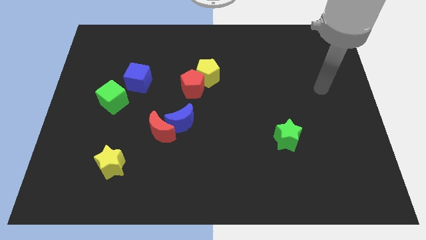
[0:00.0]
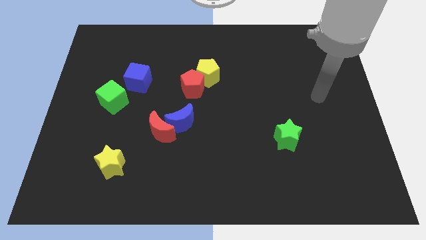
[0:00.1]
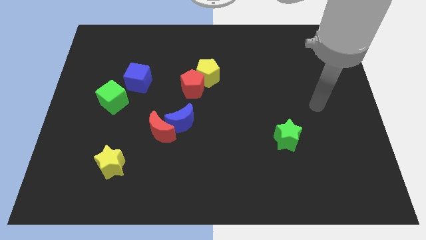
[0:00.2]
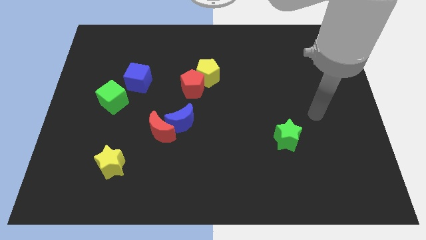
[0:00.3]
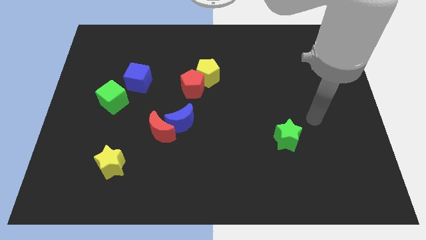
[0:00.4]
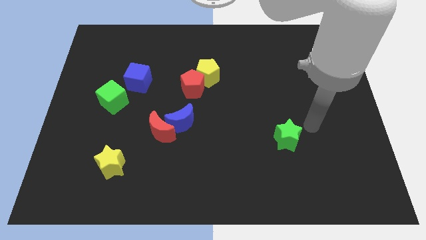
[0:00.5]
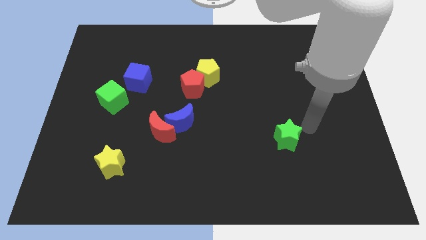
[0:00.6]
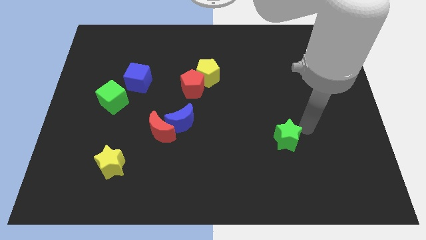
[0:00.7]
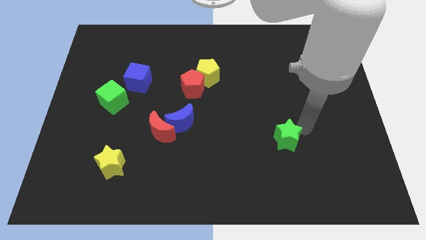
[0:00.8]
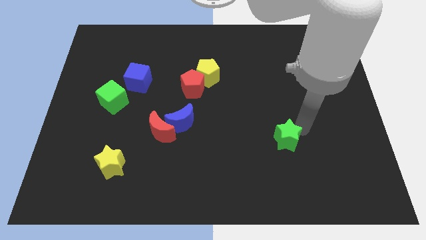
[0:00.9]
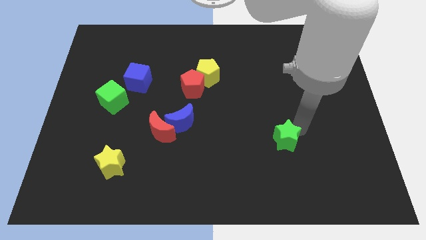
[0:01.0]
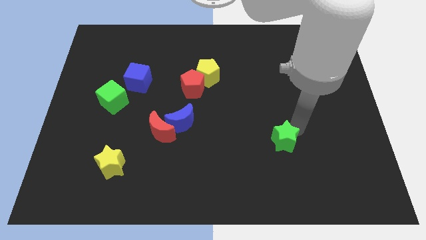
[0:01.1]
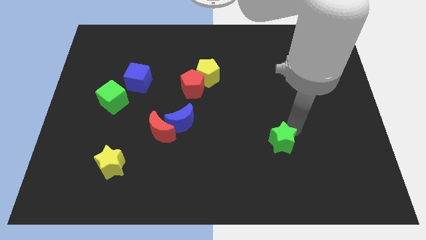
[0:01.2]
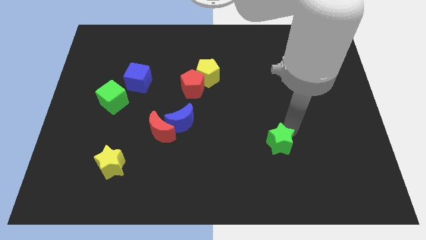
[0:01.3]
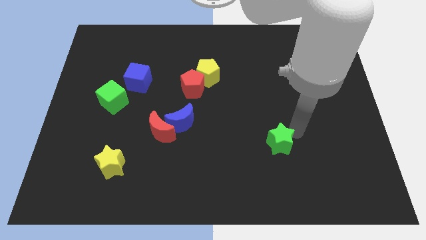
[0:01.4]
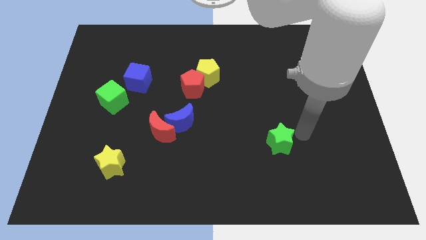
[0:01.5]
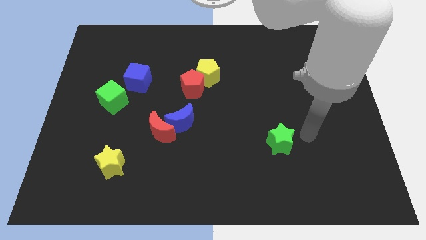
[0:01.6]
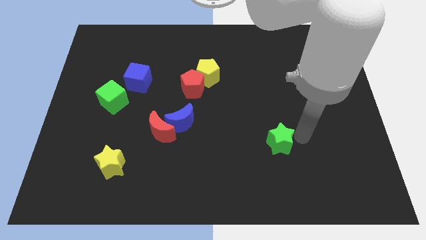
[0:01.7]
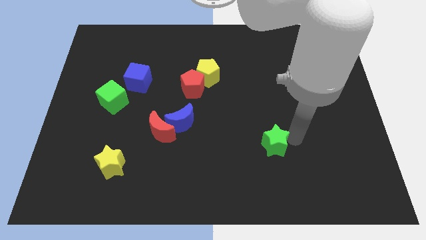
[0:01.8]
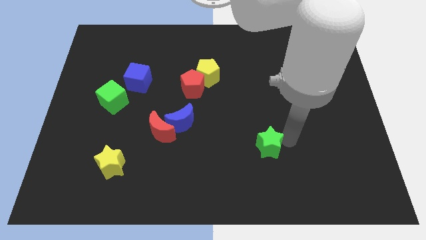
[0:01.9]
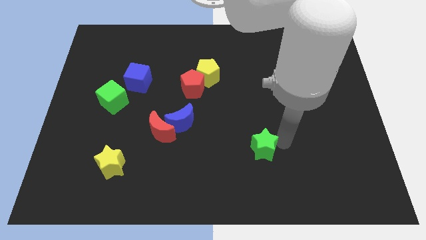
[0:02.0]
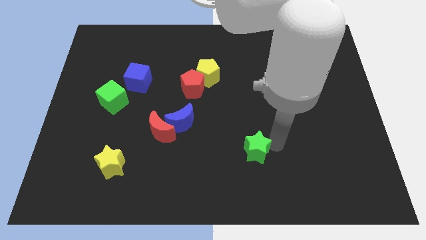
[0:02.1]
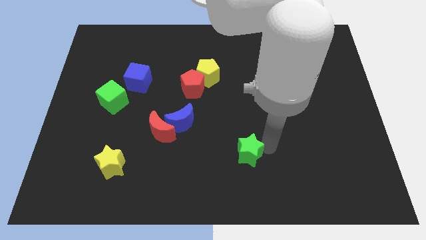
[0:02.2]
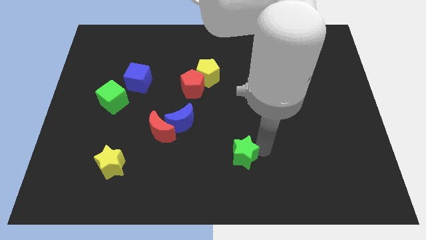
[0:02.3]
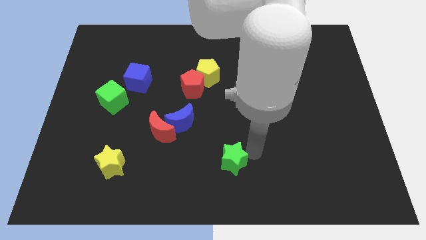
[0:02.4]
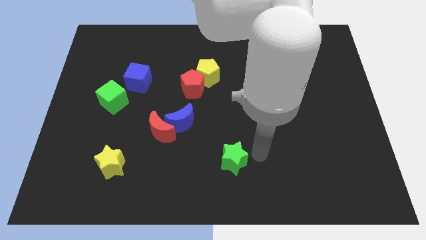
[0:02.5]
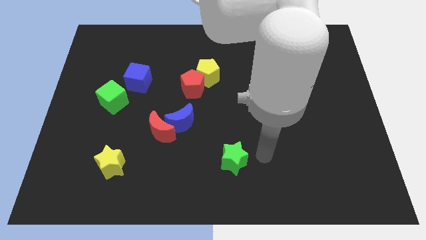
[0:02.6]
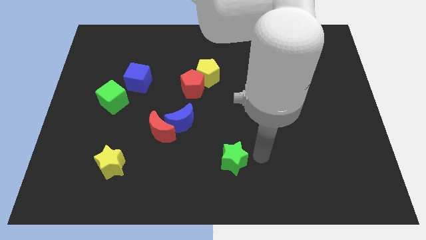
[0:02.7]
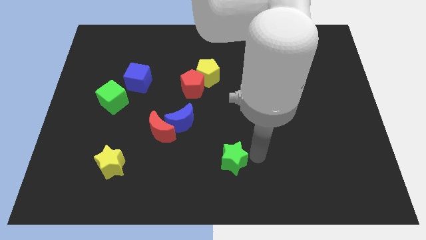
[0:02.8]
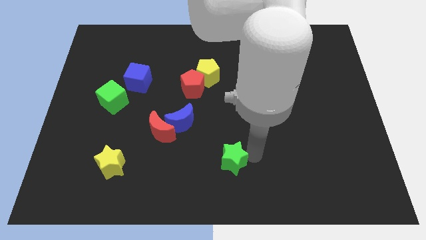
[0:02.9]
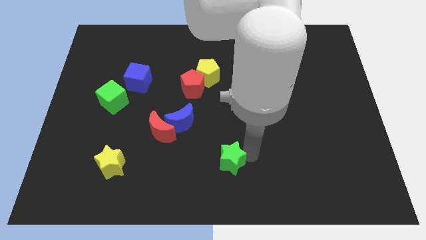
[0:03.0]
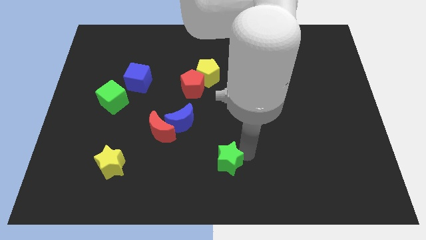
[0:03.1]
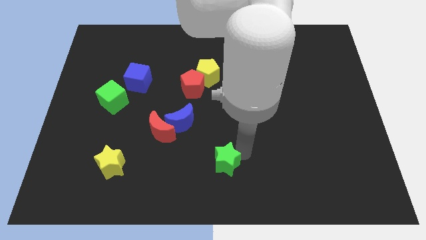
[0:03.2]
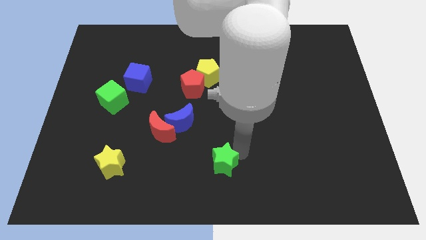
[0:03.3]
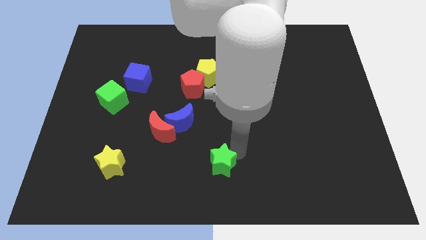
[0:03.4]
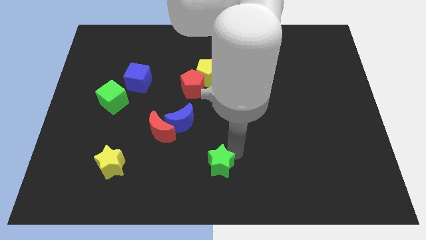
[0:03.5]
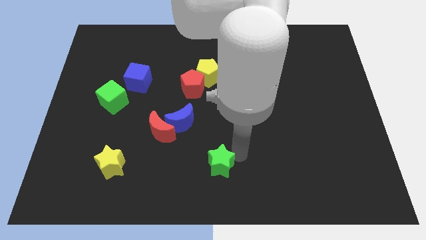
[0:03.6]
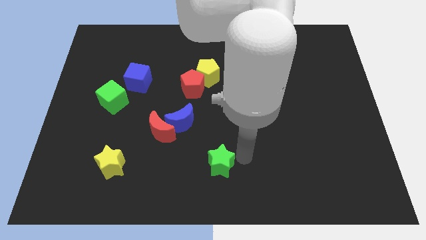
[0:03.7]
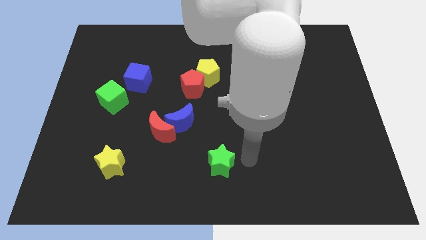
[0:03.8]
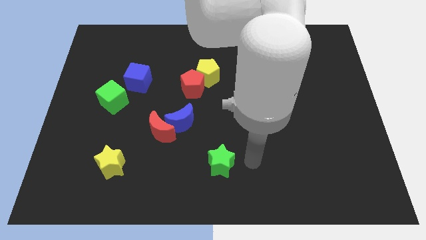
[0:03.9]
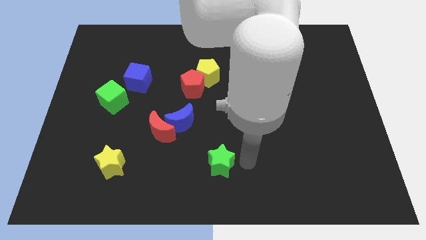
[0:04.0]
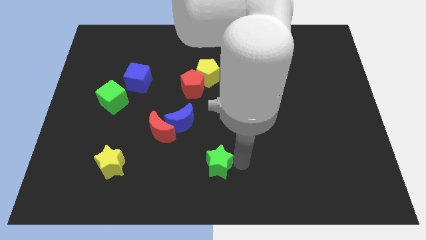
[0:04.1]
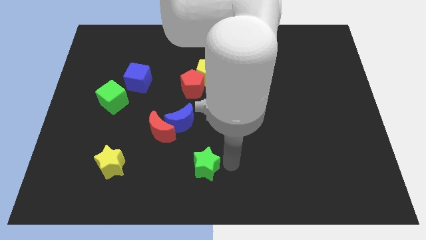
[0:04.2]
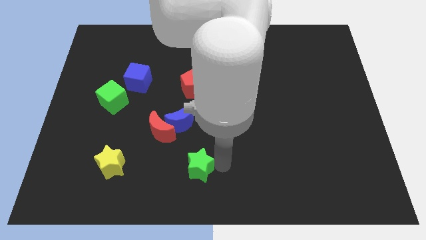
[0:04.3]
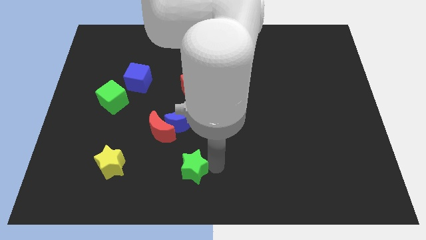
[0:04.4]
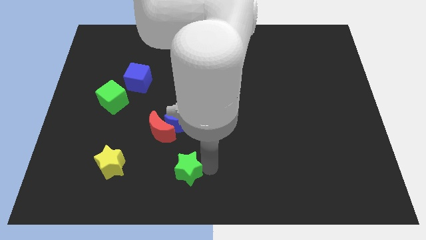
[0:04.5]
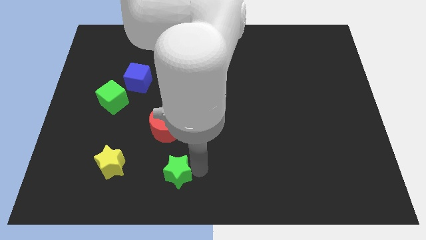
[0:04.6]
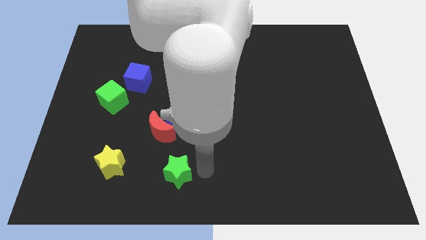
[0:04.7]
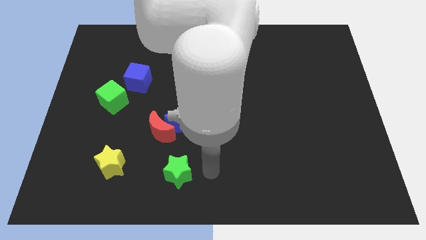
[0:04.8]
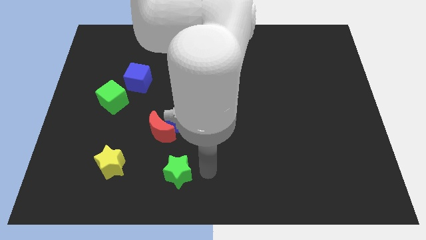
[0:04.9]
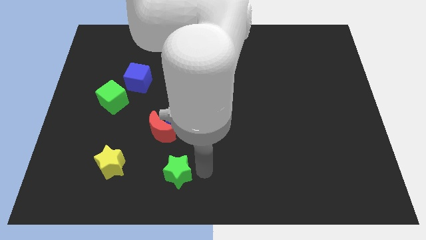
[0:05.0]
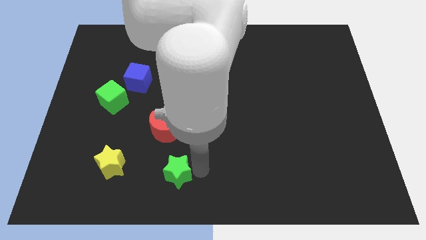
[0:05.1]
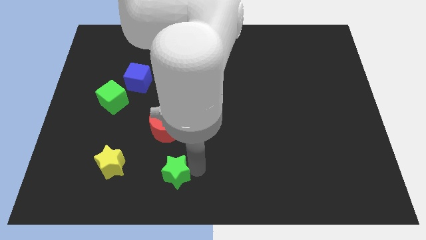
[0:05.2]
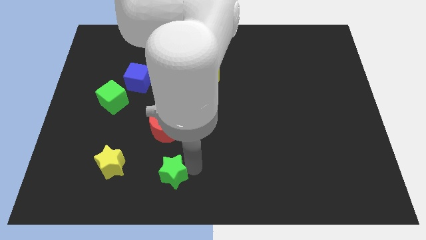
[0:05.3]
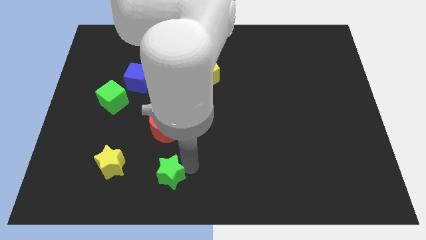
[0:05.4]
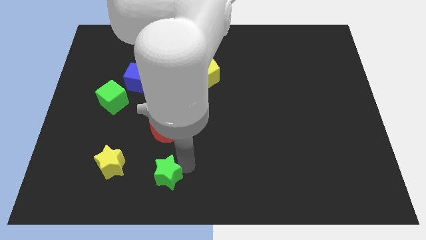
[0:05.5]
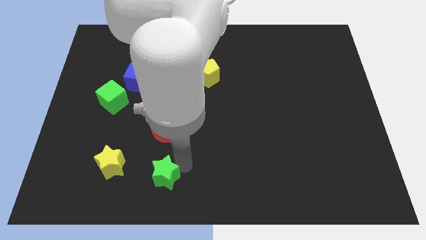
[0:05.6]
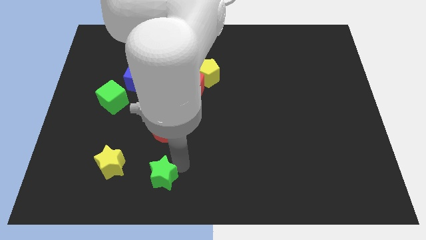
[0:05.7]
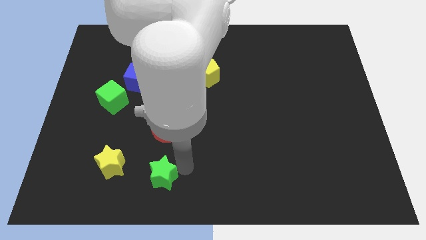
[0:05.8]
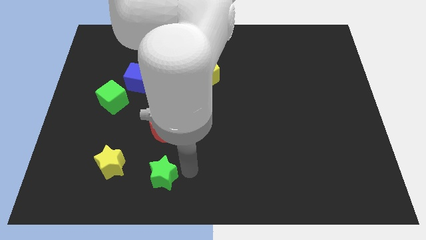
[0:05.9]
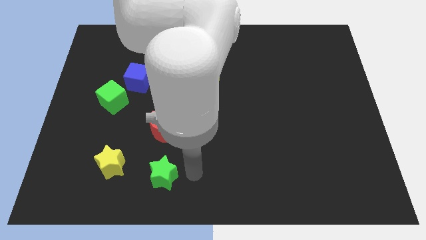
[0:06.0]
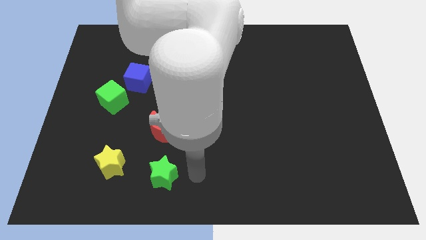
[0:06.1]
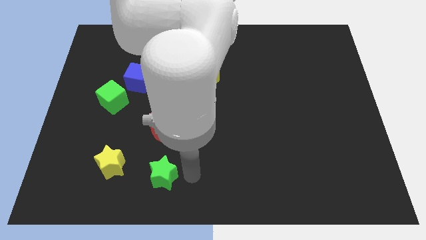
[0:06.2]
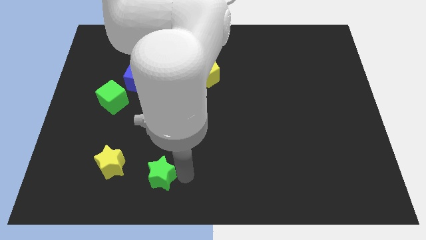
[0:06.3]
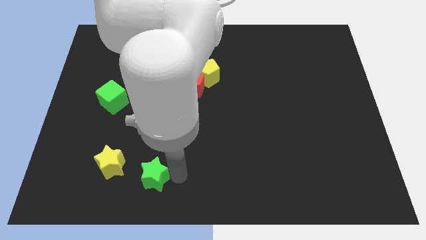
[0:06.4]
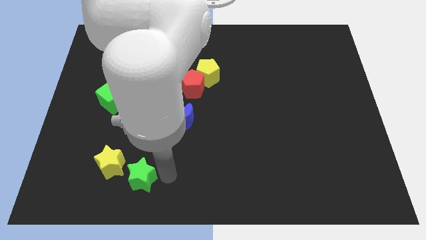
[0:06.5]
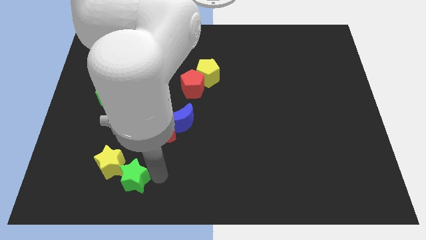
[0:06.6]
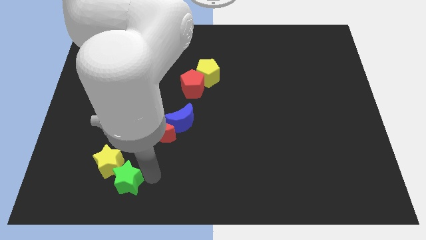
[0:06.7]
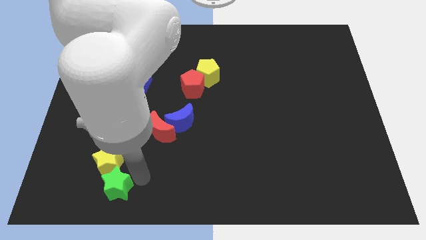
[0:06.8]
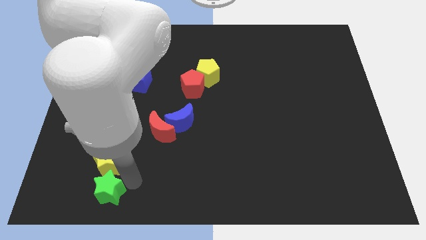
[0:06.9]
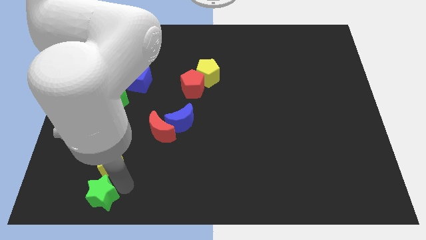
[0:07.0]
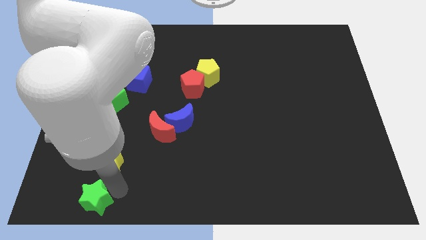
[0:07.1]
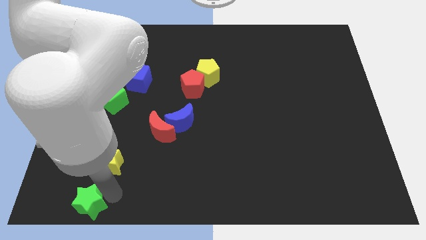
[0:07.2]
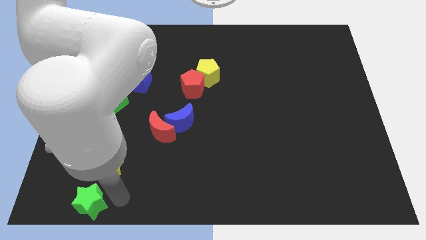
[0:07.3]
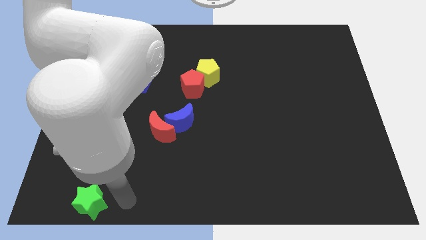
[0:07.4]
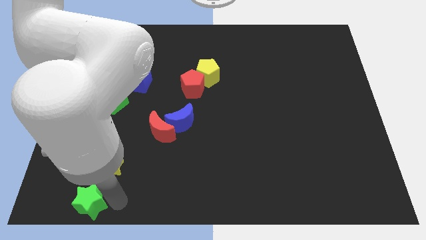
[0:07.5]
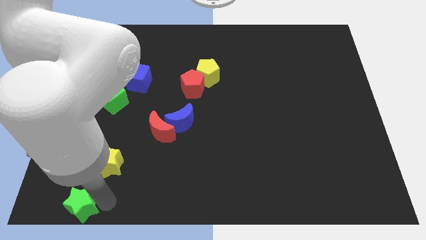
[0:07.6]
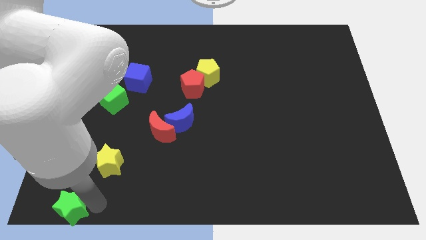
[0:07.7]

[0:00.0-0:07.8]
put the green star to the bottom left corner
